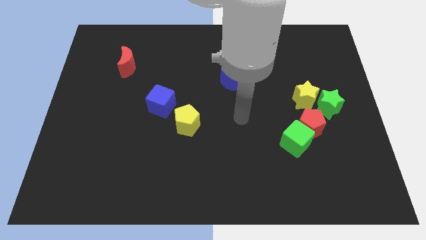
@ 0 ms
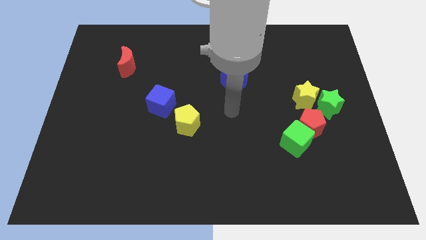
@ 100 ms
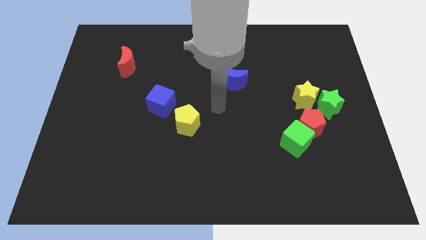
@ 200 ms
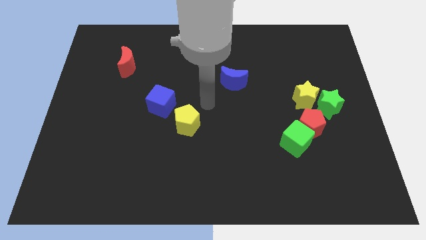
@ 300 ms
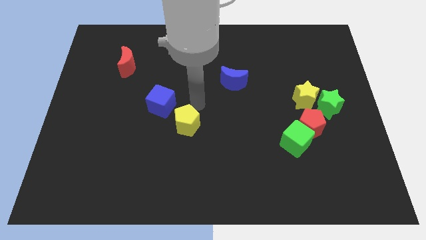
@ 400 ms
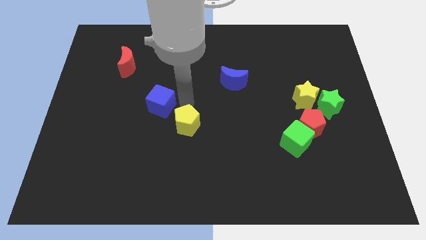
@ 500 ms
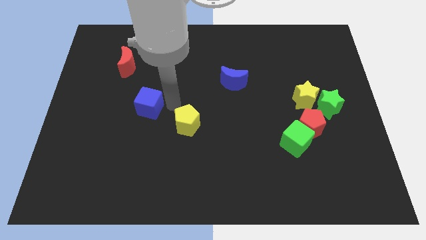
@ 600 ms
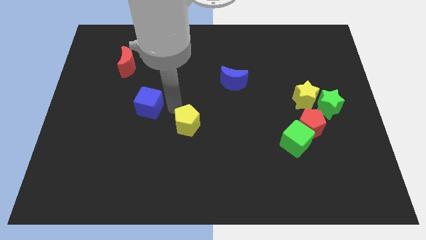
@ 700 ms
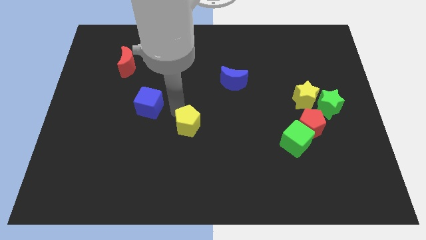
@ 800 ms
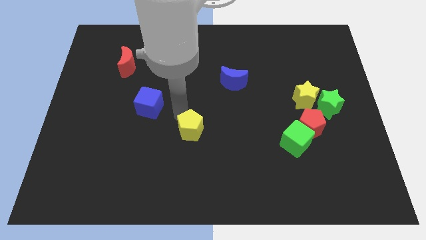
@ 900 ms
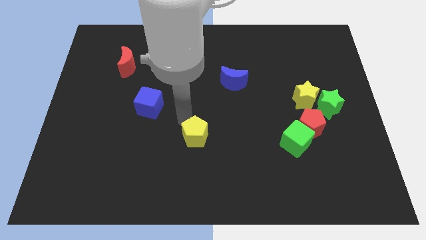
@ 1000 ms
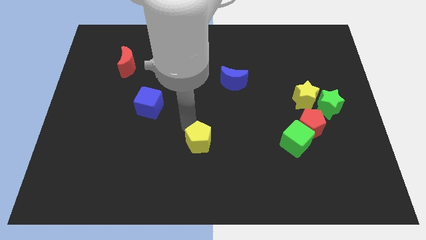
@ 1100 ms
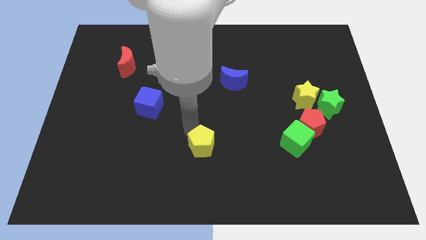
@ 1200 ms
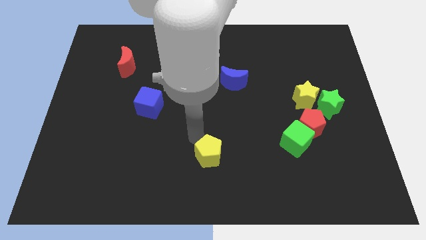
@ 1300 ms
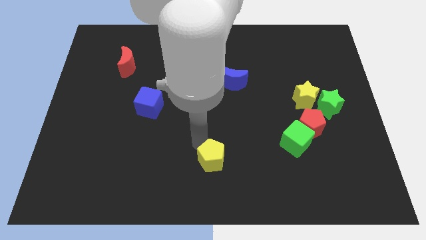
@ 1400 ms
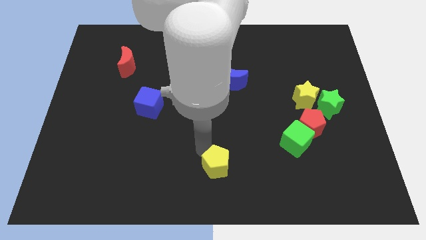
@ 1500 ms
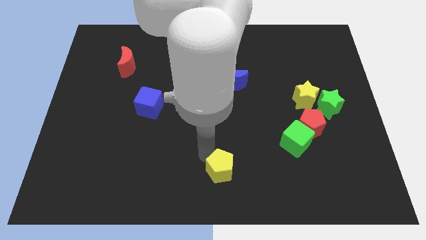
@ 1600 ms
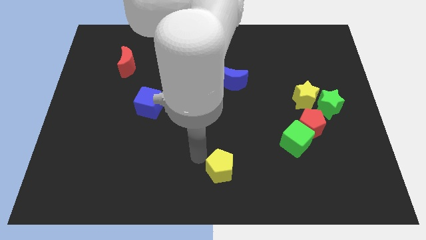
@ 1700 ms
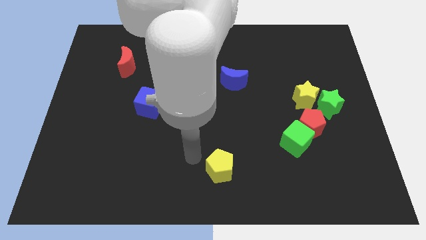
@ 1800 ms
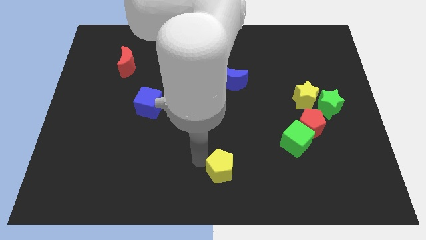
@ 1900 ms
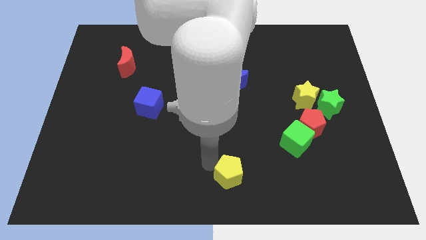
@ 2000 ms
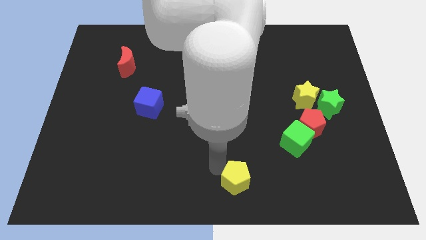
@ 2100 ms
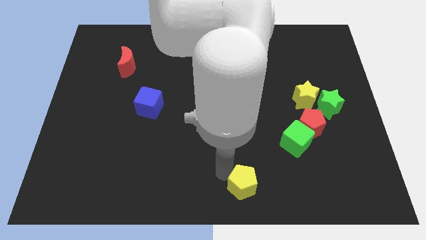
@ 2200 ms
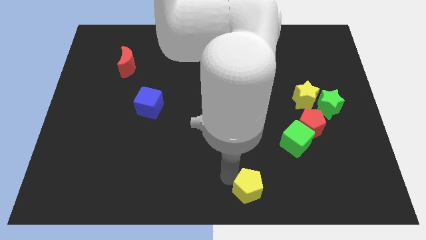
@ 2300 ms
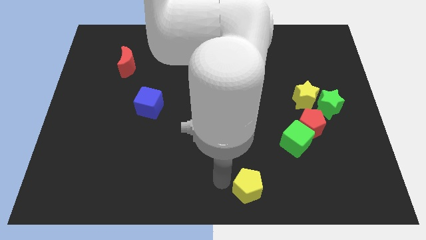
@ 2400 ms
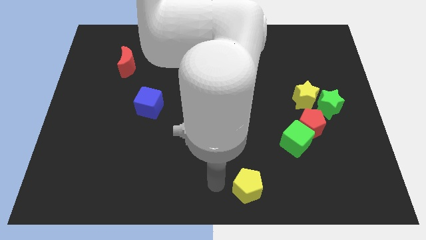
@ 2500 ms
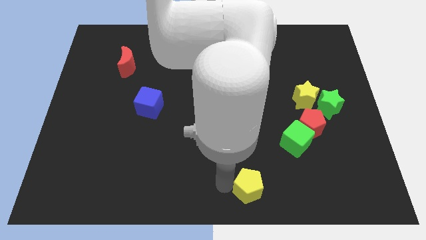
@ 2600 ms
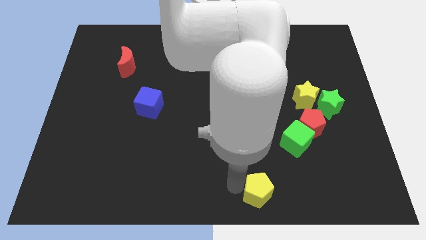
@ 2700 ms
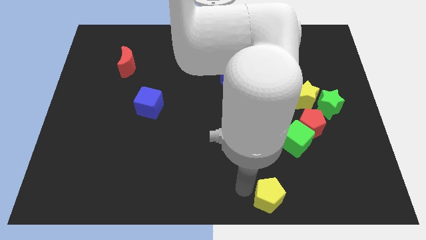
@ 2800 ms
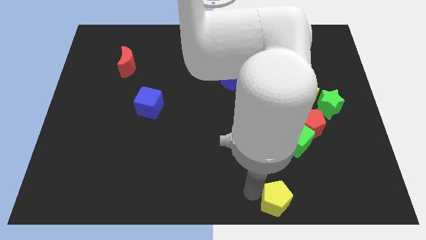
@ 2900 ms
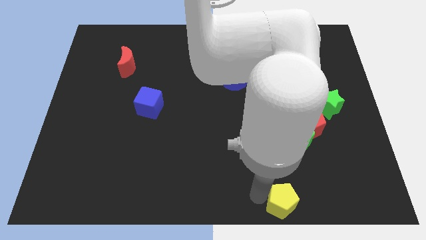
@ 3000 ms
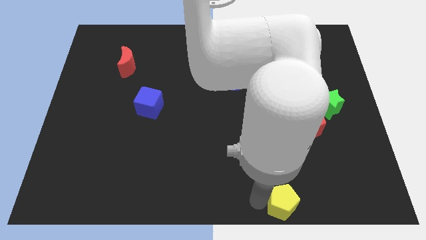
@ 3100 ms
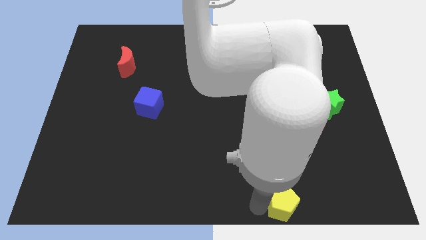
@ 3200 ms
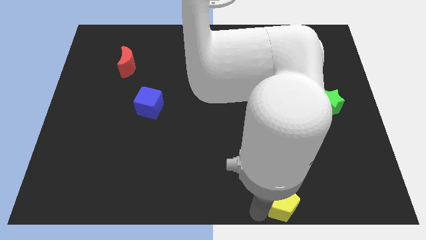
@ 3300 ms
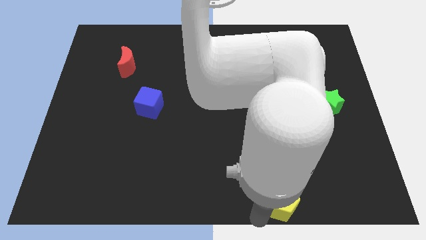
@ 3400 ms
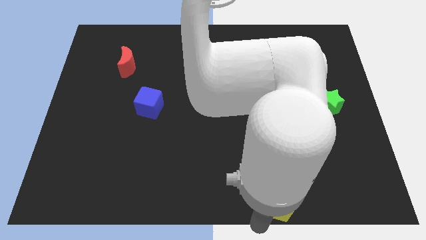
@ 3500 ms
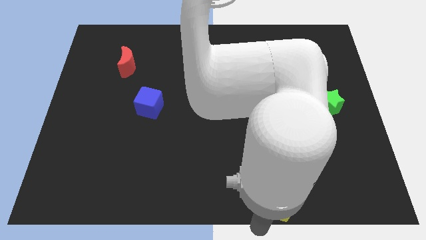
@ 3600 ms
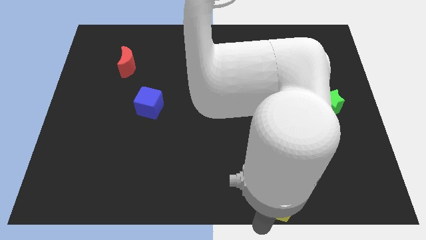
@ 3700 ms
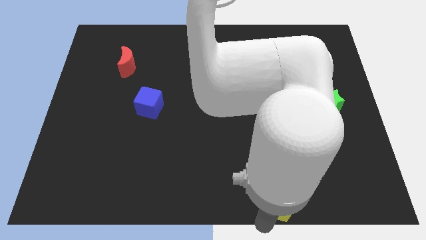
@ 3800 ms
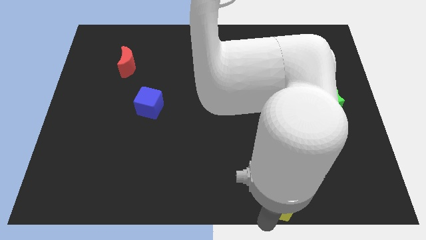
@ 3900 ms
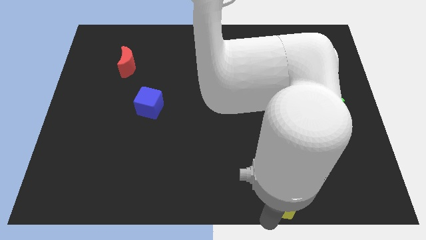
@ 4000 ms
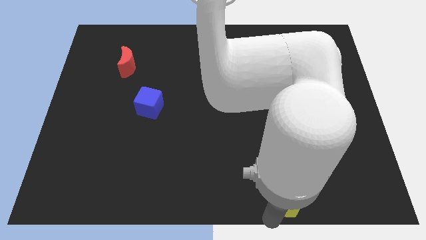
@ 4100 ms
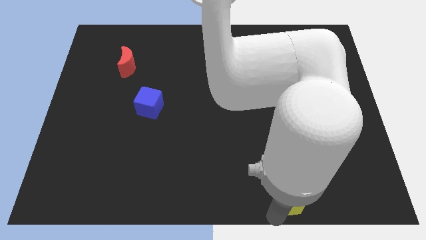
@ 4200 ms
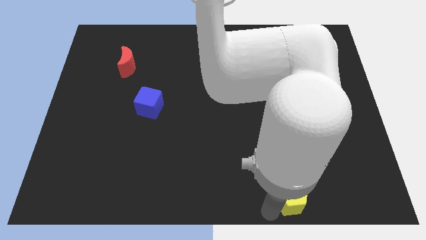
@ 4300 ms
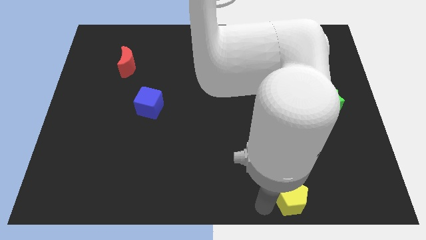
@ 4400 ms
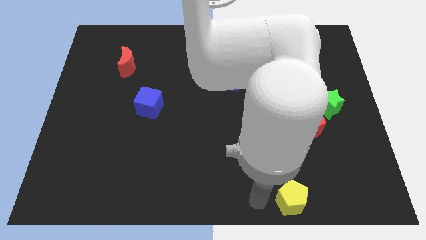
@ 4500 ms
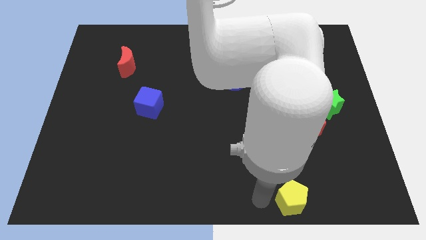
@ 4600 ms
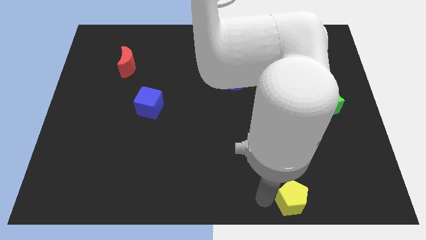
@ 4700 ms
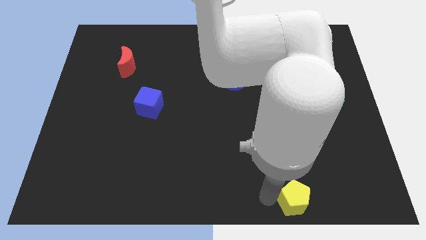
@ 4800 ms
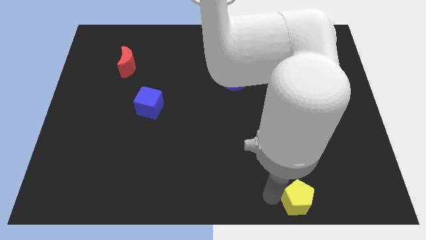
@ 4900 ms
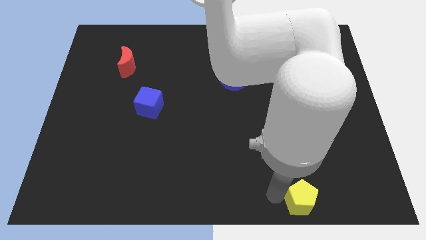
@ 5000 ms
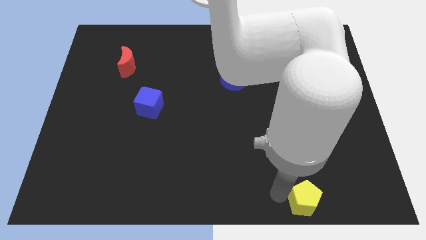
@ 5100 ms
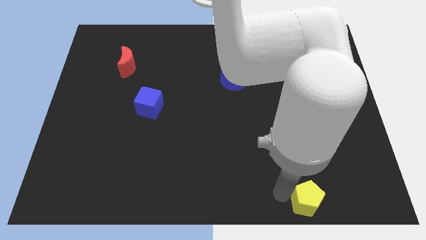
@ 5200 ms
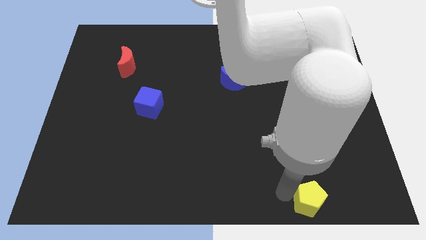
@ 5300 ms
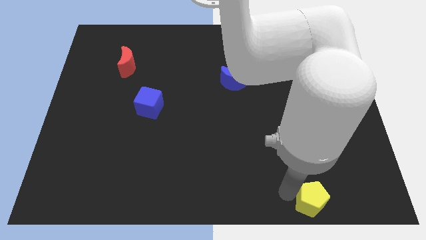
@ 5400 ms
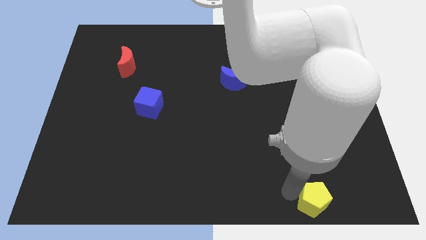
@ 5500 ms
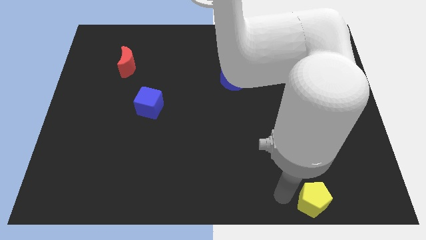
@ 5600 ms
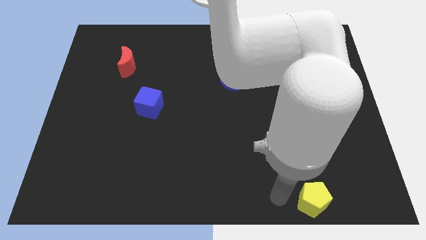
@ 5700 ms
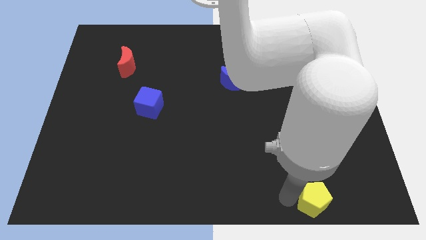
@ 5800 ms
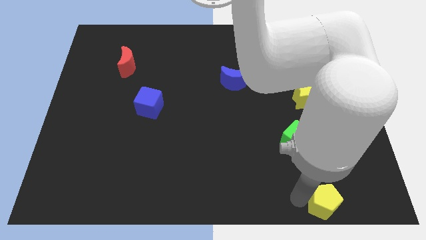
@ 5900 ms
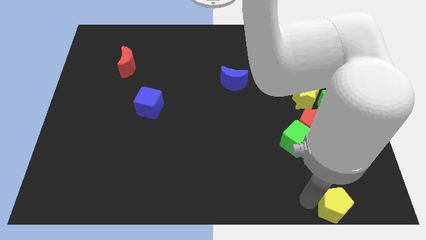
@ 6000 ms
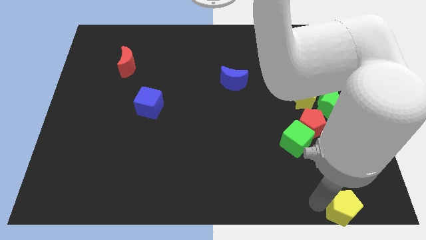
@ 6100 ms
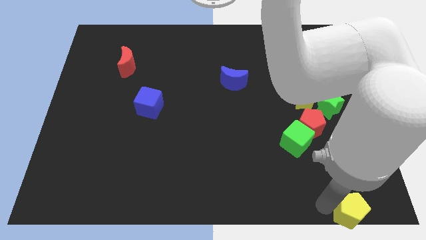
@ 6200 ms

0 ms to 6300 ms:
slide the yellow pentagon to the bottom right of the board

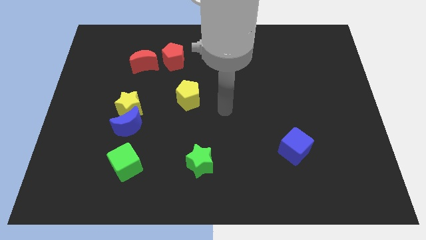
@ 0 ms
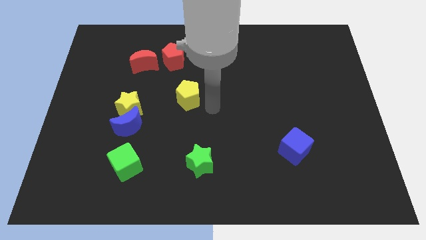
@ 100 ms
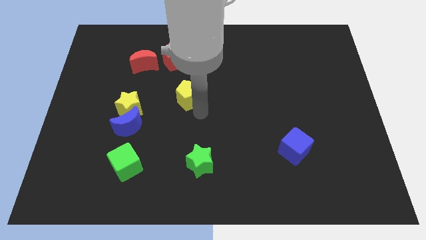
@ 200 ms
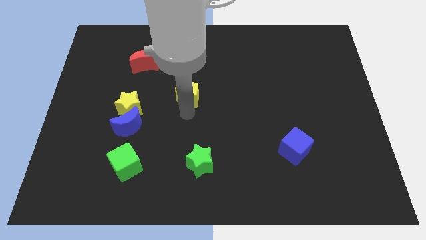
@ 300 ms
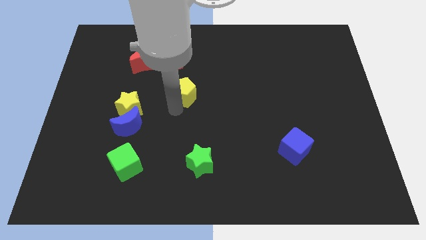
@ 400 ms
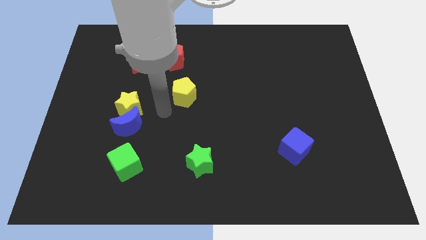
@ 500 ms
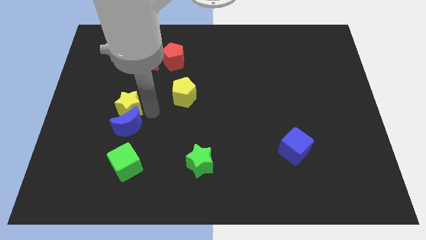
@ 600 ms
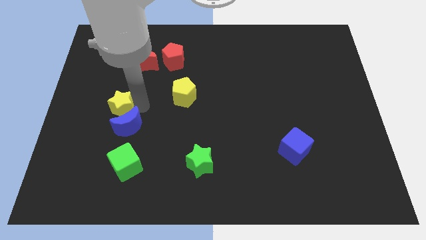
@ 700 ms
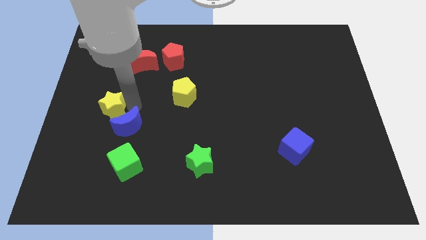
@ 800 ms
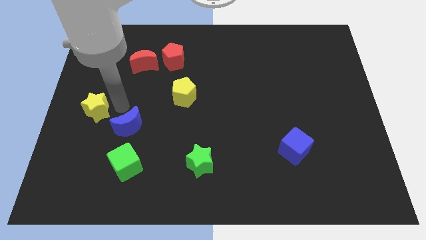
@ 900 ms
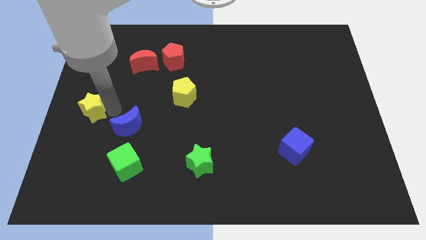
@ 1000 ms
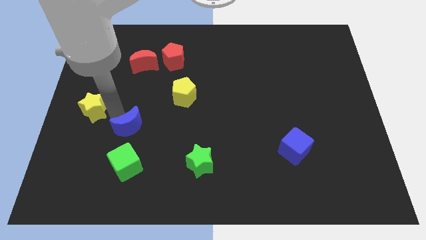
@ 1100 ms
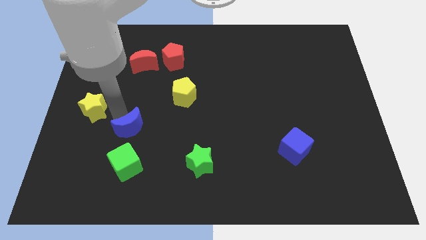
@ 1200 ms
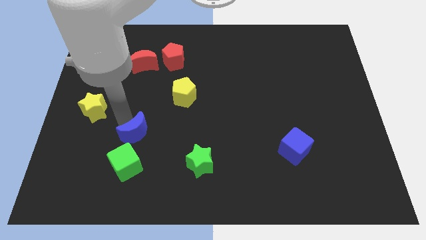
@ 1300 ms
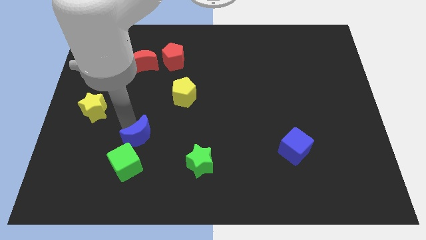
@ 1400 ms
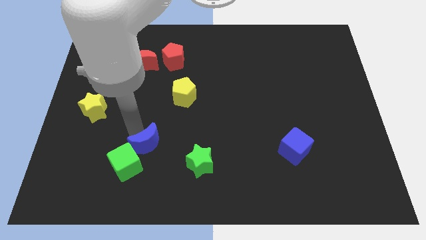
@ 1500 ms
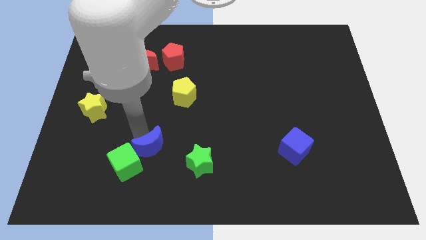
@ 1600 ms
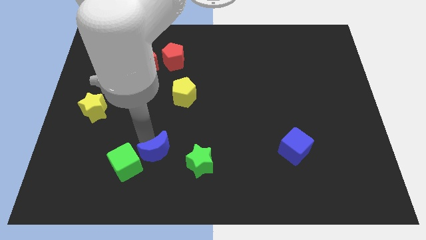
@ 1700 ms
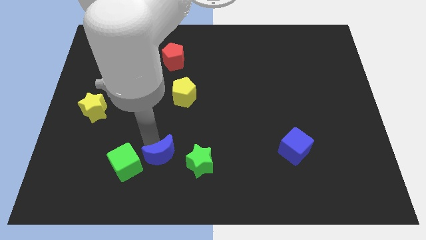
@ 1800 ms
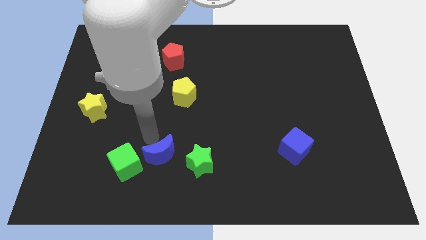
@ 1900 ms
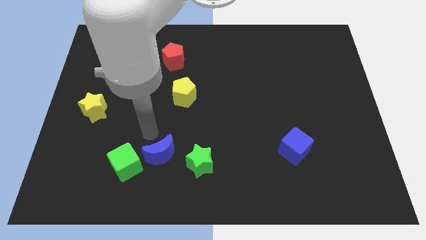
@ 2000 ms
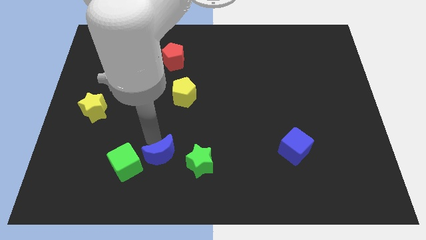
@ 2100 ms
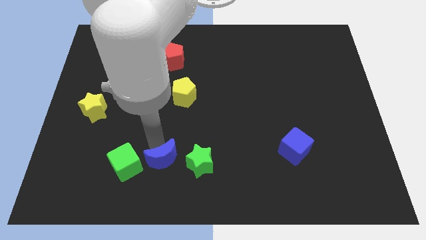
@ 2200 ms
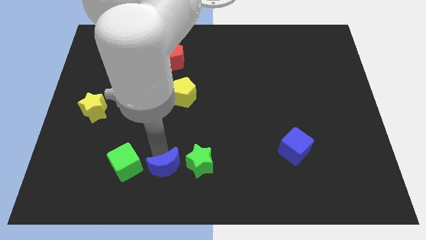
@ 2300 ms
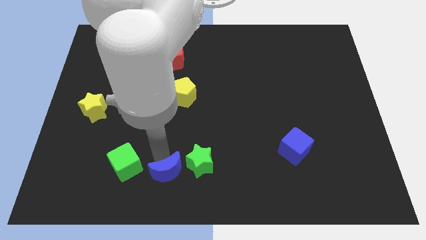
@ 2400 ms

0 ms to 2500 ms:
move the blue moon to the bottom side
